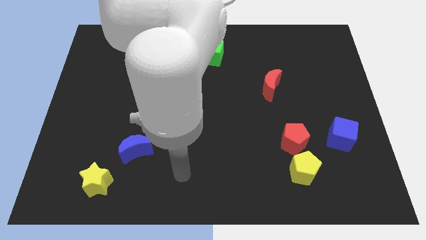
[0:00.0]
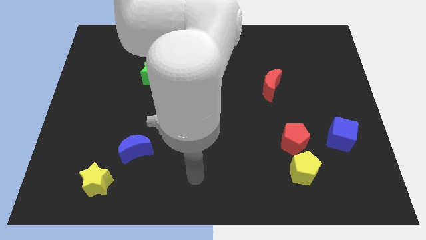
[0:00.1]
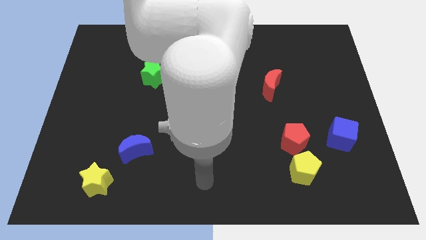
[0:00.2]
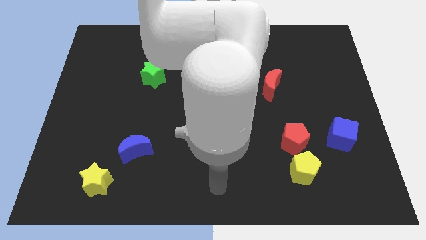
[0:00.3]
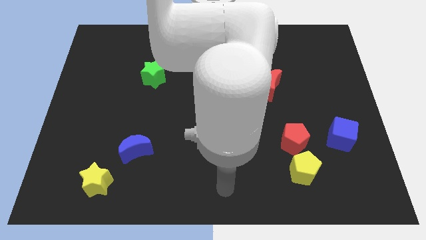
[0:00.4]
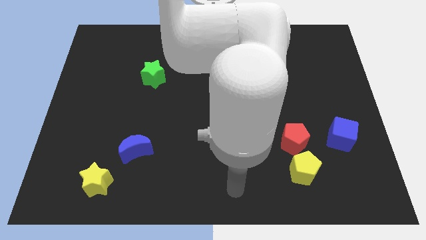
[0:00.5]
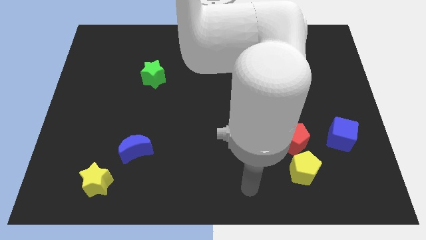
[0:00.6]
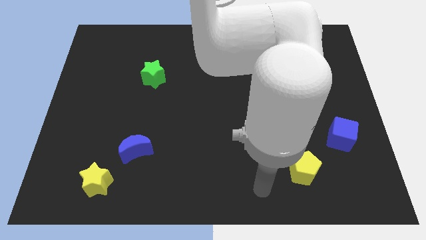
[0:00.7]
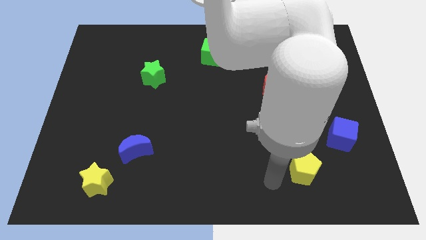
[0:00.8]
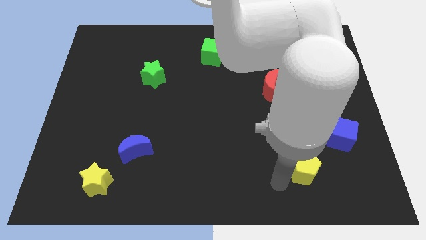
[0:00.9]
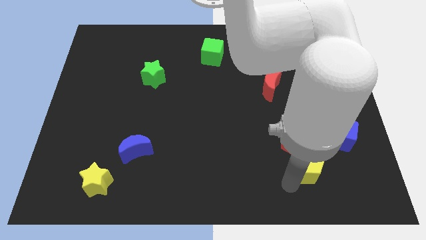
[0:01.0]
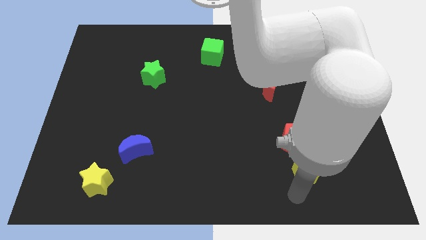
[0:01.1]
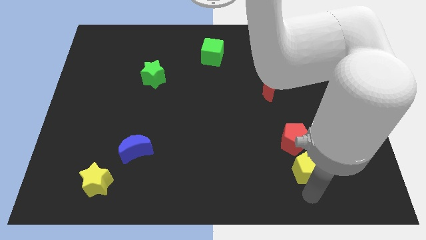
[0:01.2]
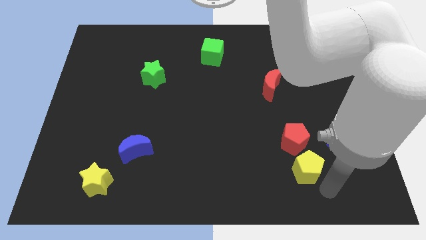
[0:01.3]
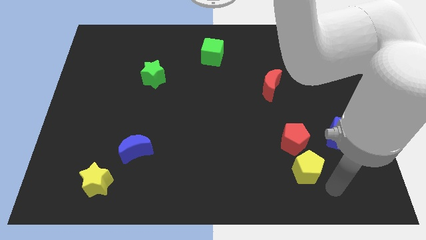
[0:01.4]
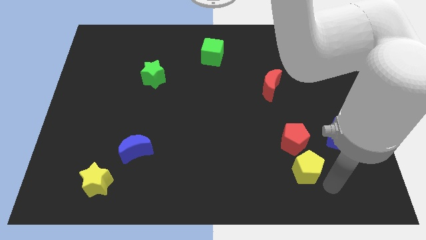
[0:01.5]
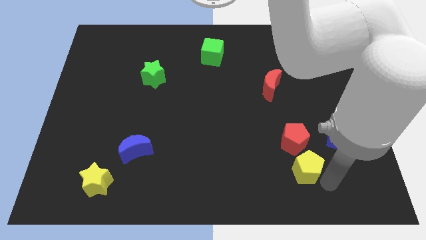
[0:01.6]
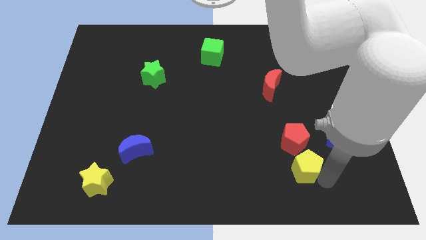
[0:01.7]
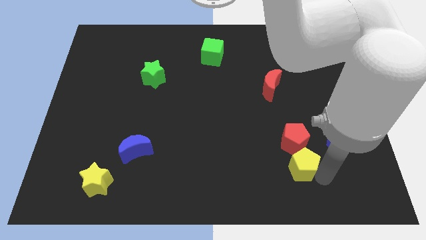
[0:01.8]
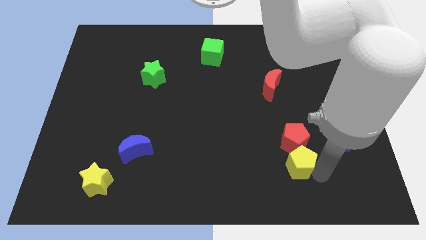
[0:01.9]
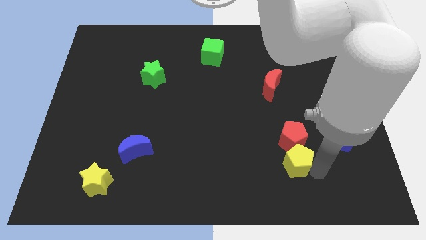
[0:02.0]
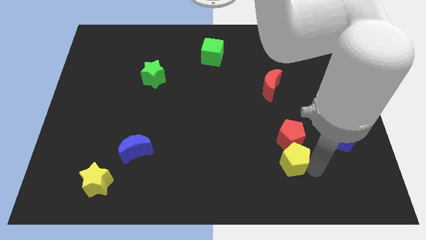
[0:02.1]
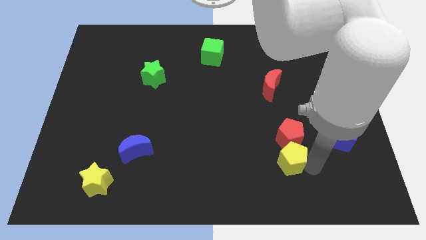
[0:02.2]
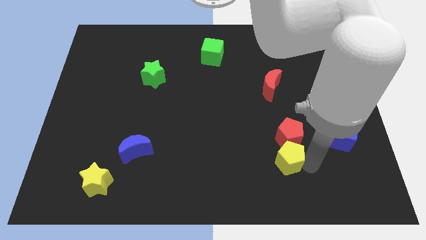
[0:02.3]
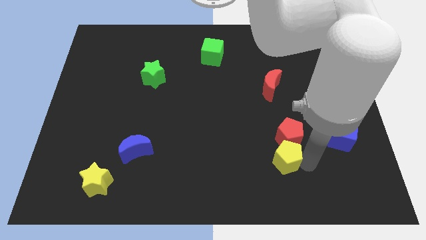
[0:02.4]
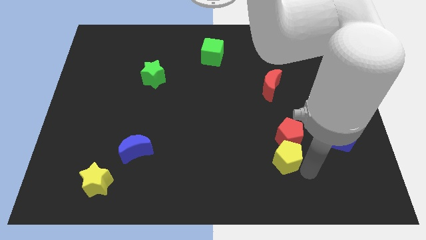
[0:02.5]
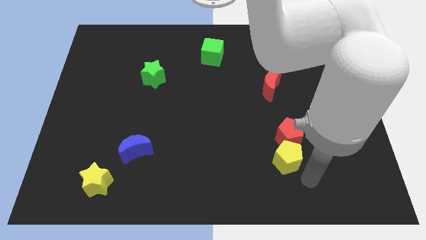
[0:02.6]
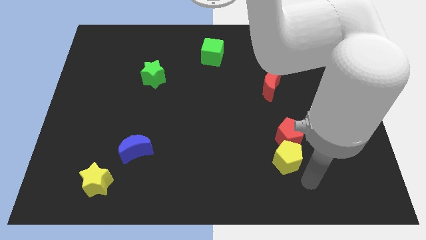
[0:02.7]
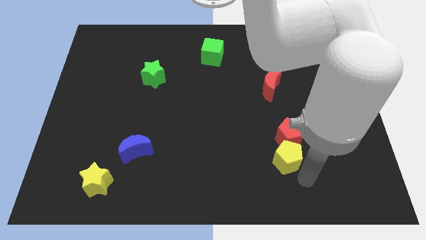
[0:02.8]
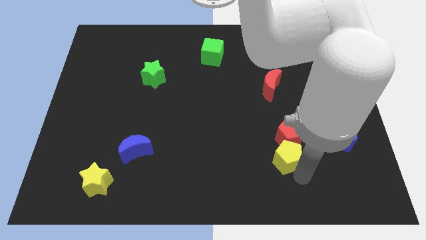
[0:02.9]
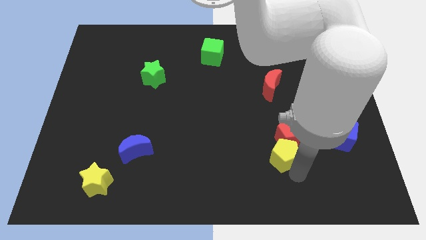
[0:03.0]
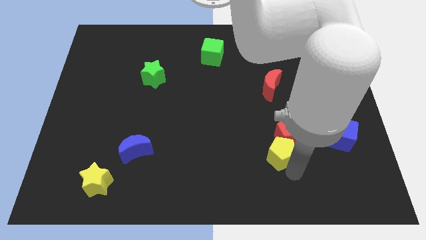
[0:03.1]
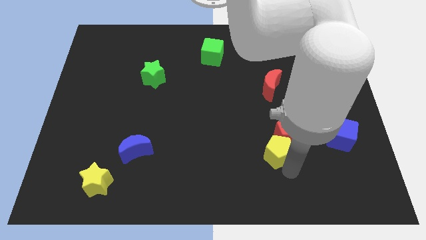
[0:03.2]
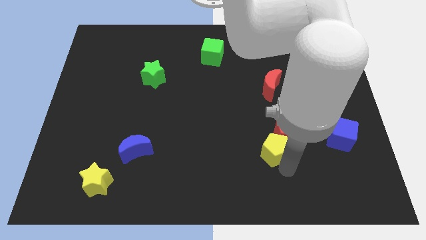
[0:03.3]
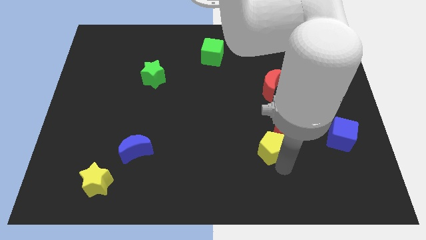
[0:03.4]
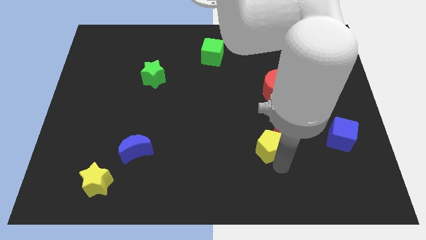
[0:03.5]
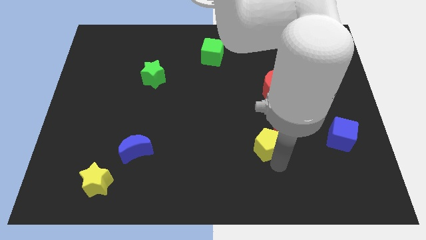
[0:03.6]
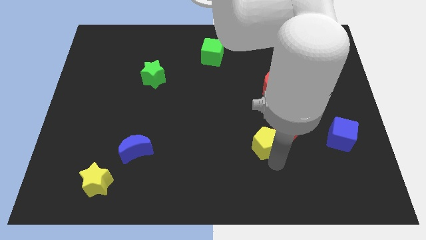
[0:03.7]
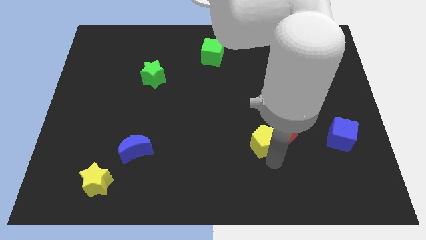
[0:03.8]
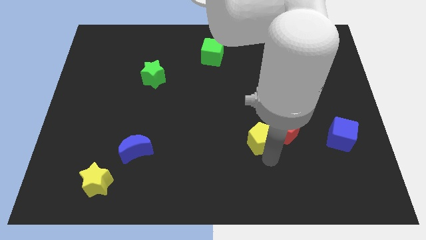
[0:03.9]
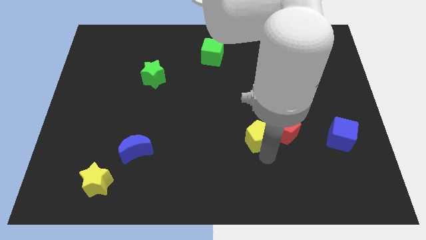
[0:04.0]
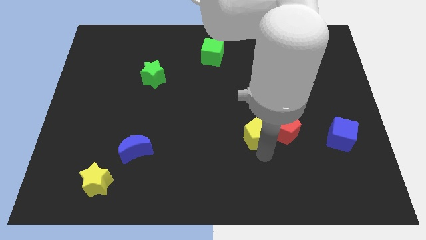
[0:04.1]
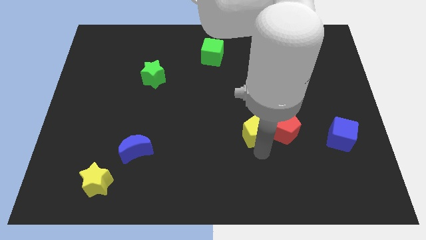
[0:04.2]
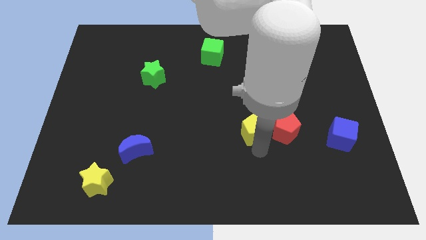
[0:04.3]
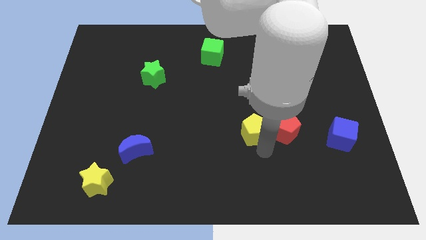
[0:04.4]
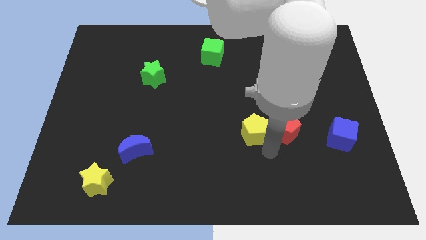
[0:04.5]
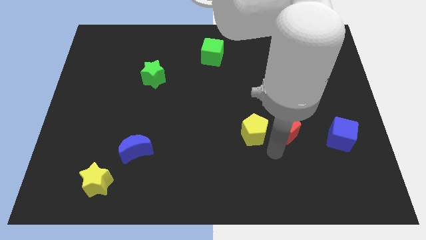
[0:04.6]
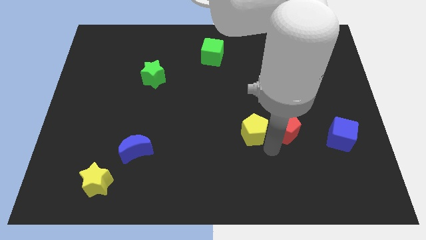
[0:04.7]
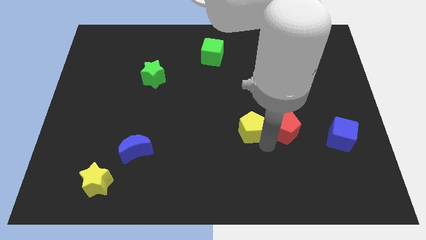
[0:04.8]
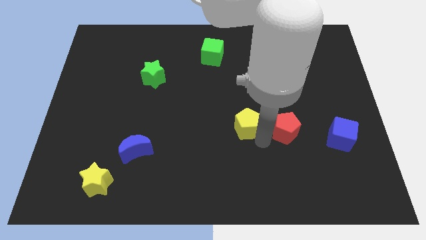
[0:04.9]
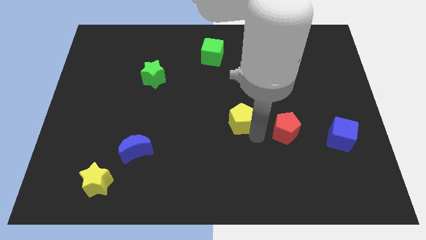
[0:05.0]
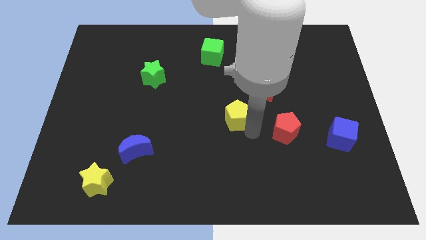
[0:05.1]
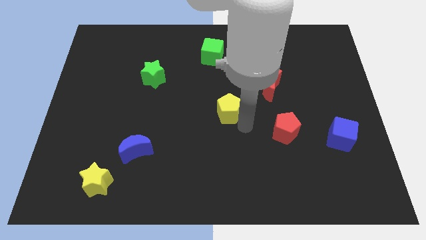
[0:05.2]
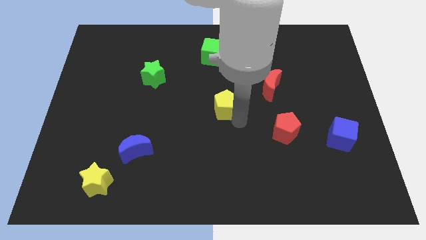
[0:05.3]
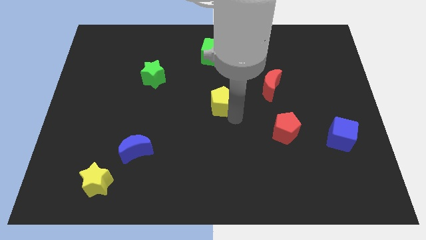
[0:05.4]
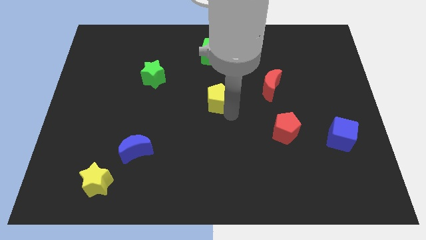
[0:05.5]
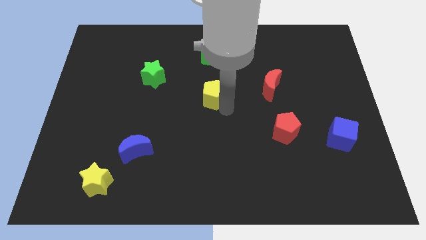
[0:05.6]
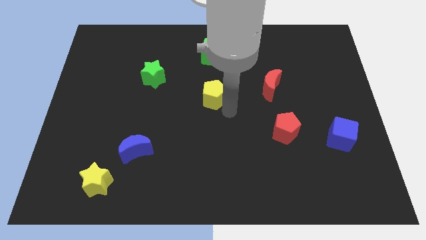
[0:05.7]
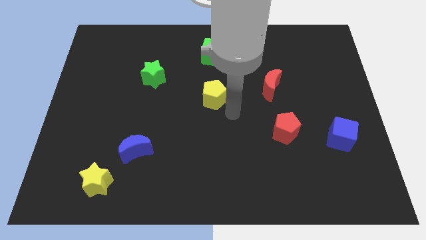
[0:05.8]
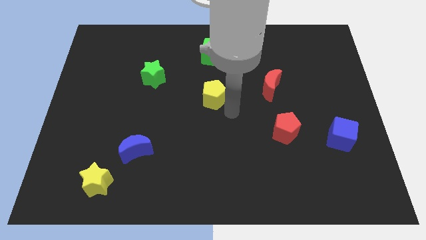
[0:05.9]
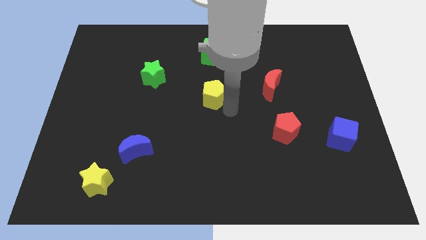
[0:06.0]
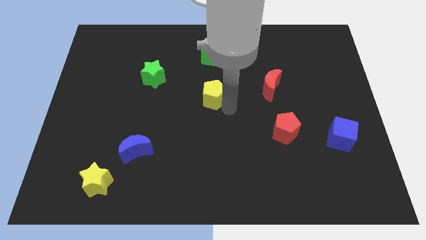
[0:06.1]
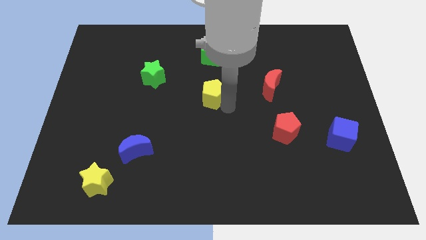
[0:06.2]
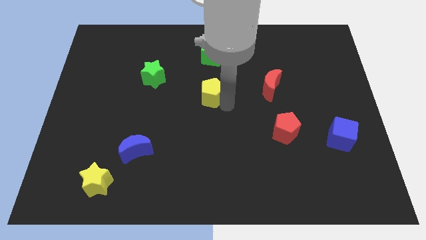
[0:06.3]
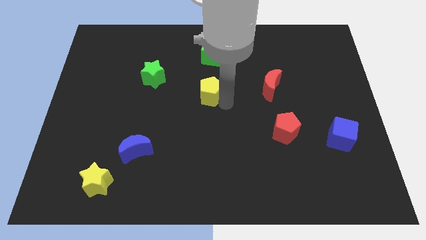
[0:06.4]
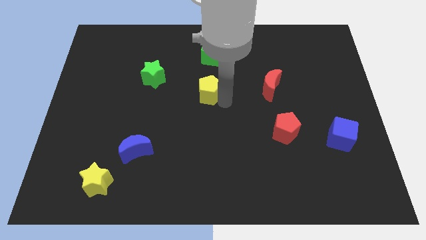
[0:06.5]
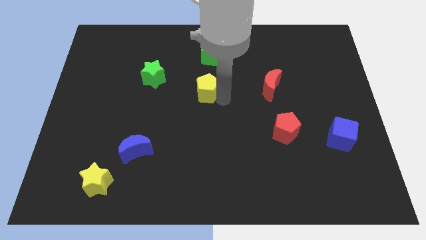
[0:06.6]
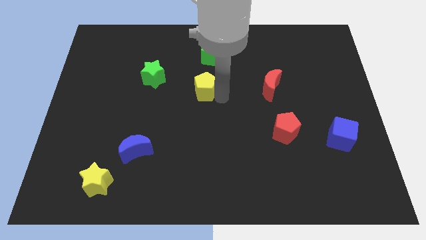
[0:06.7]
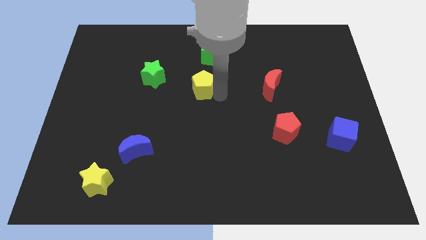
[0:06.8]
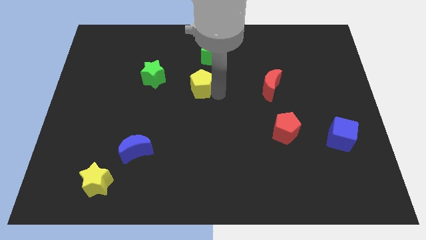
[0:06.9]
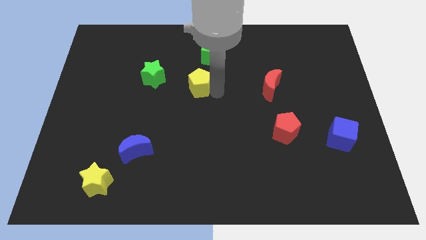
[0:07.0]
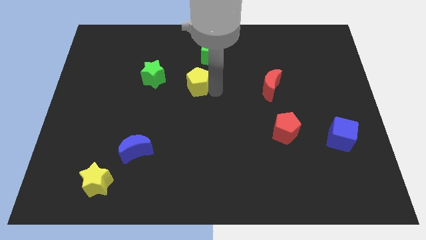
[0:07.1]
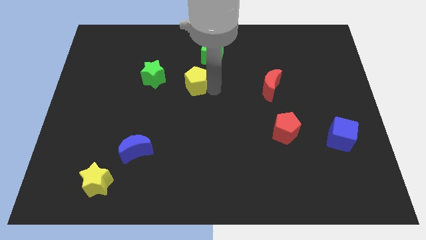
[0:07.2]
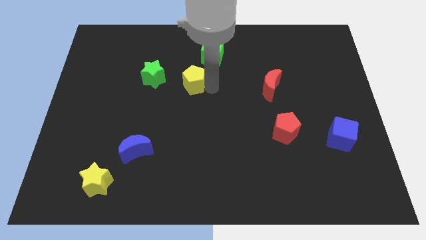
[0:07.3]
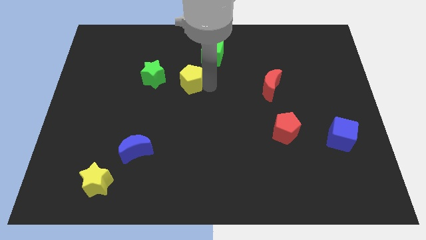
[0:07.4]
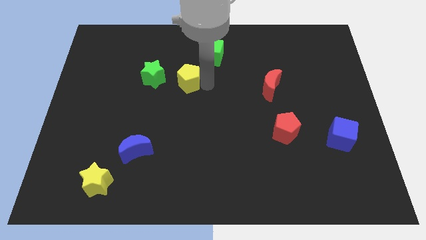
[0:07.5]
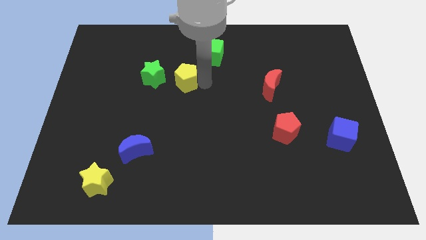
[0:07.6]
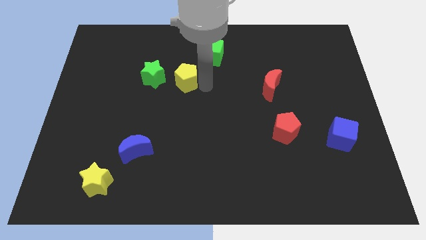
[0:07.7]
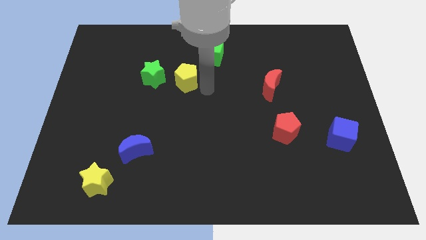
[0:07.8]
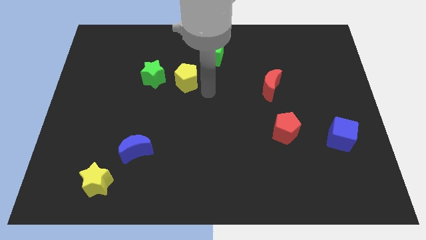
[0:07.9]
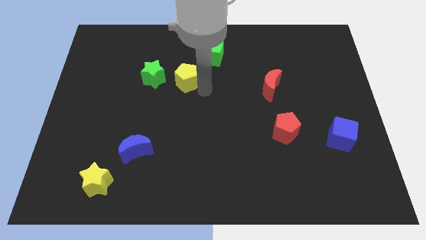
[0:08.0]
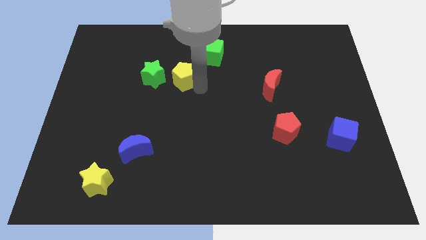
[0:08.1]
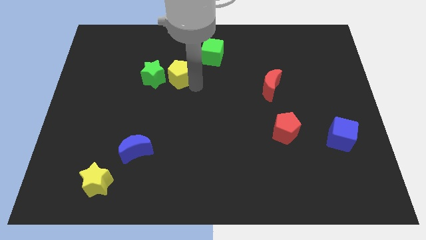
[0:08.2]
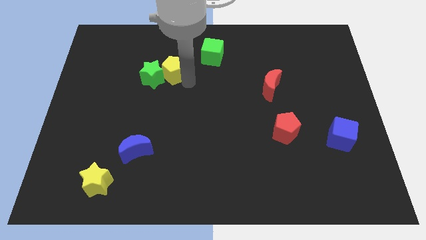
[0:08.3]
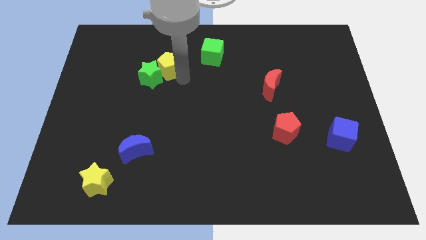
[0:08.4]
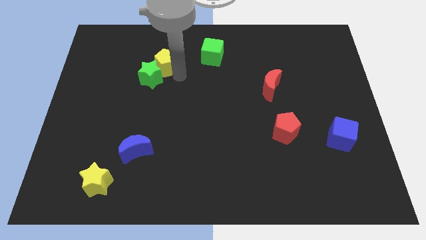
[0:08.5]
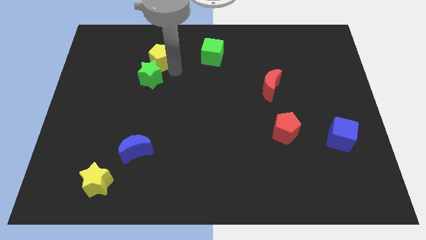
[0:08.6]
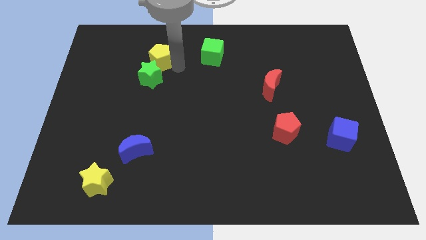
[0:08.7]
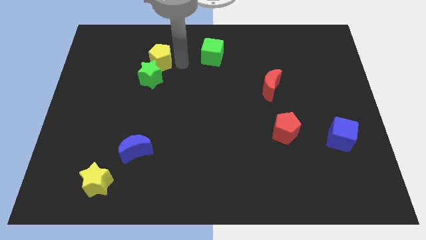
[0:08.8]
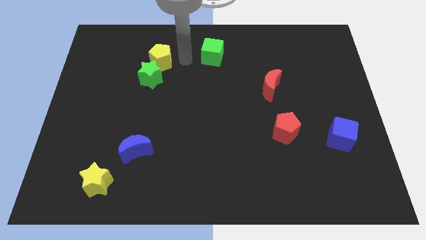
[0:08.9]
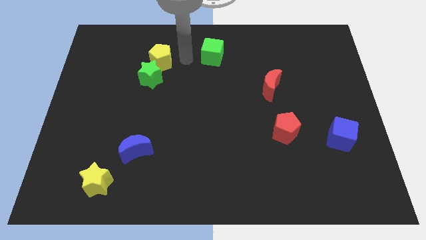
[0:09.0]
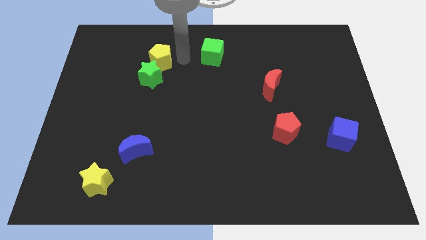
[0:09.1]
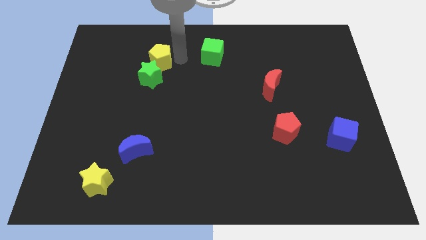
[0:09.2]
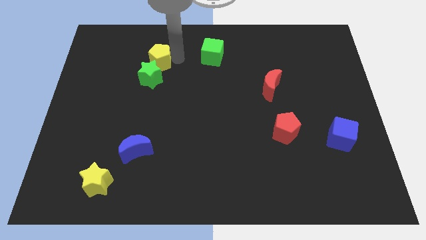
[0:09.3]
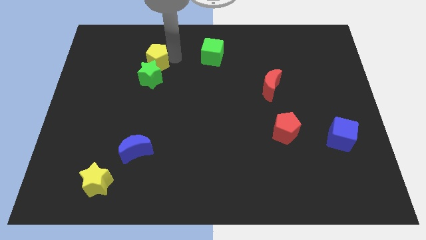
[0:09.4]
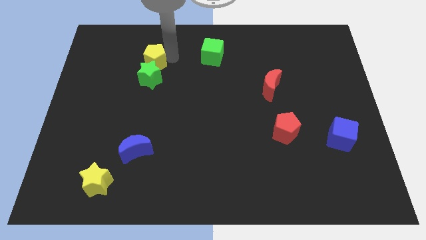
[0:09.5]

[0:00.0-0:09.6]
move the yellow pentagon to the top left side of the green star
